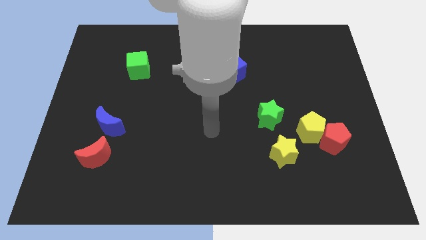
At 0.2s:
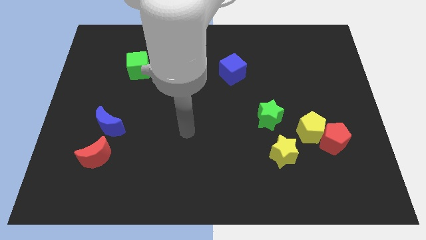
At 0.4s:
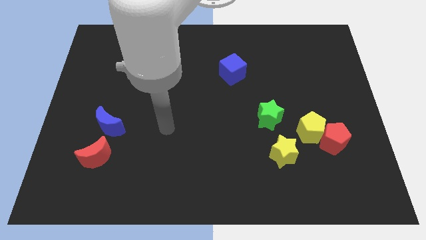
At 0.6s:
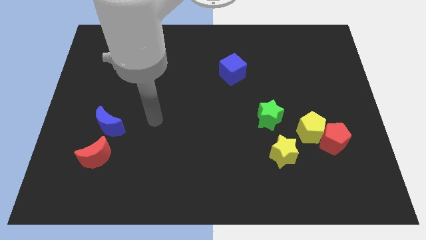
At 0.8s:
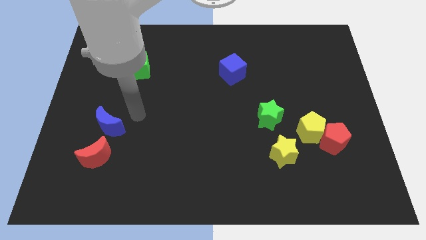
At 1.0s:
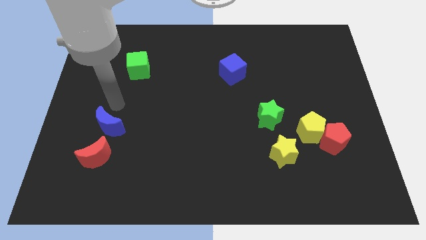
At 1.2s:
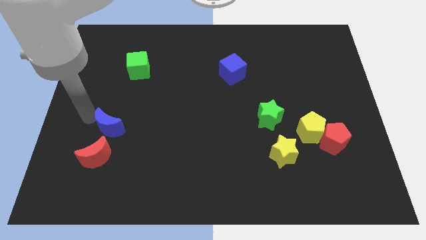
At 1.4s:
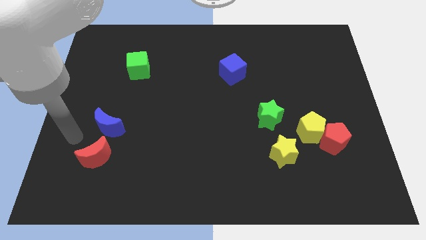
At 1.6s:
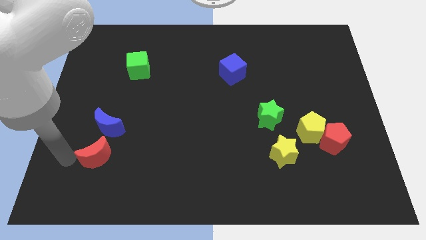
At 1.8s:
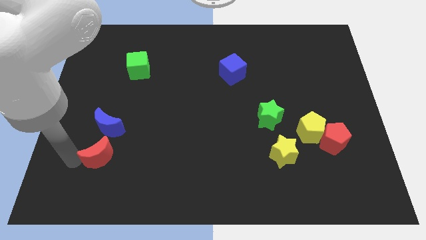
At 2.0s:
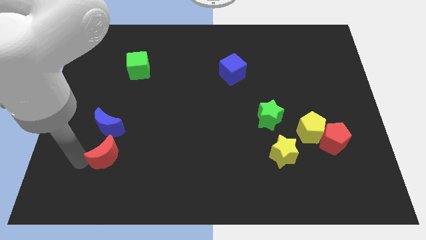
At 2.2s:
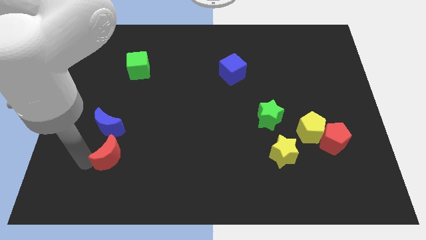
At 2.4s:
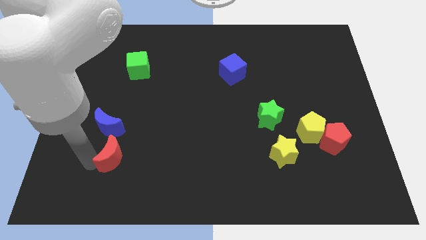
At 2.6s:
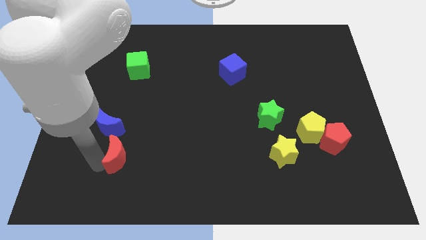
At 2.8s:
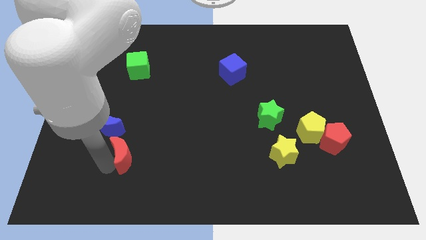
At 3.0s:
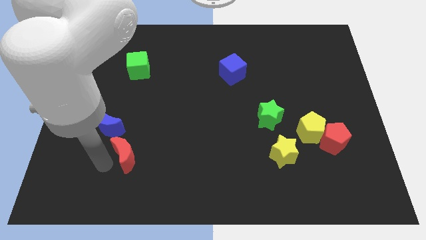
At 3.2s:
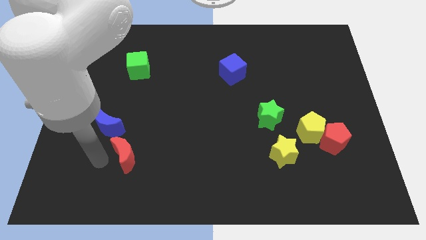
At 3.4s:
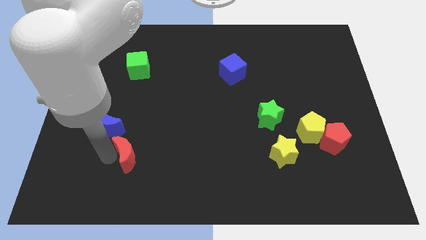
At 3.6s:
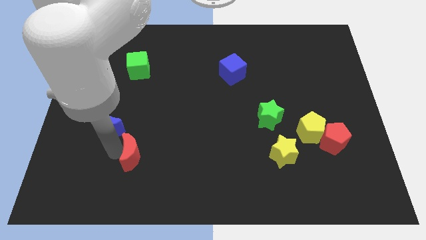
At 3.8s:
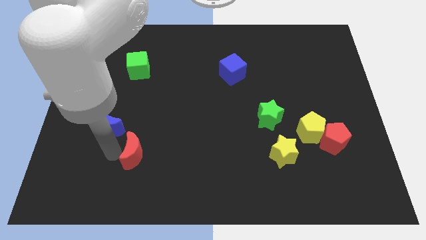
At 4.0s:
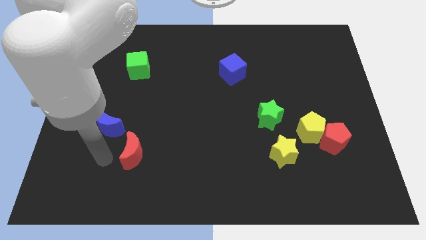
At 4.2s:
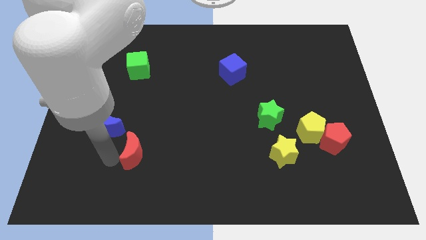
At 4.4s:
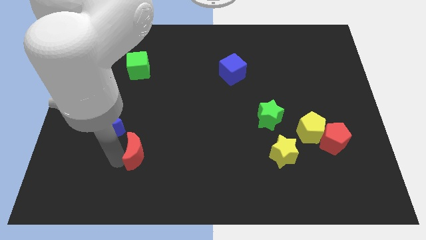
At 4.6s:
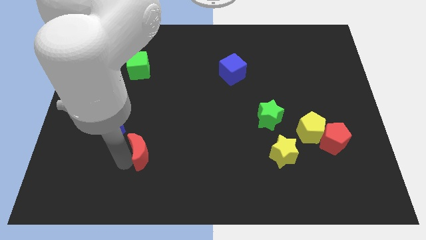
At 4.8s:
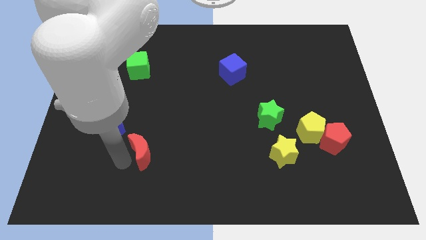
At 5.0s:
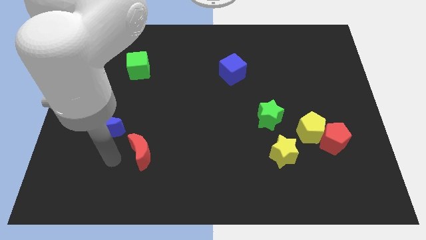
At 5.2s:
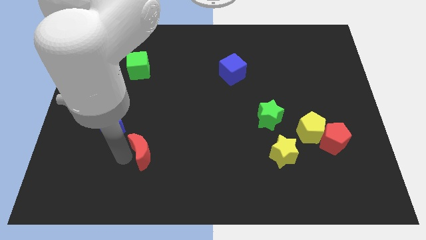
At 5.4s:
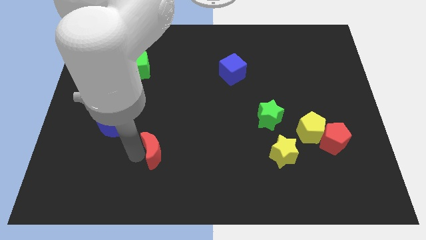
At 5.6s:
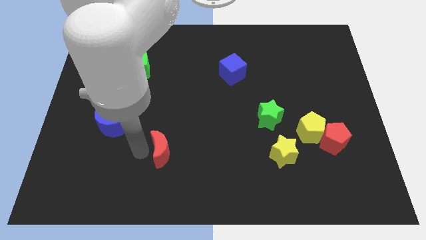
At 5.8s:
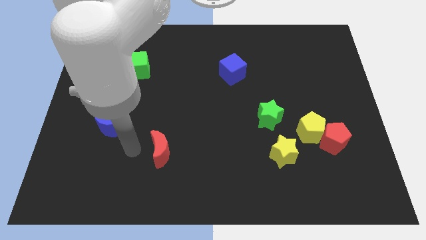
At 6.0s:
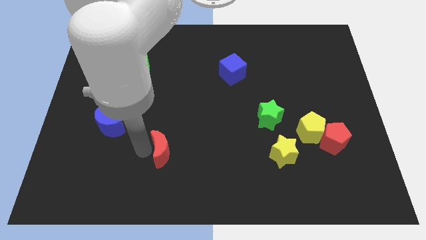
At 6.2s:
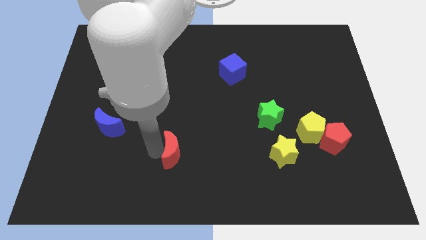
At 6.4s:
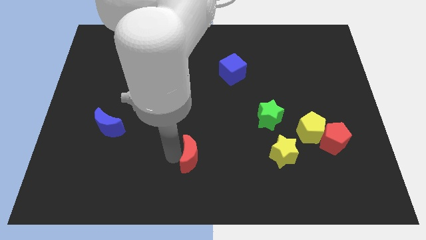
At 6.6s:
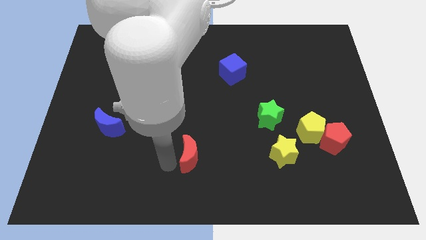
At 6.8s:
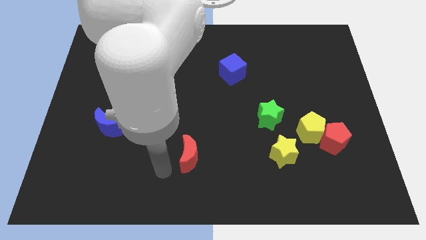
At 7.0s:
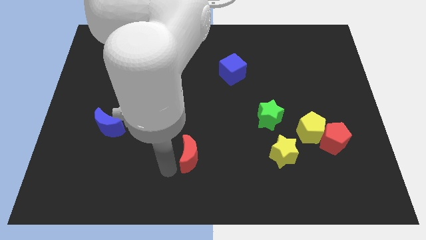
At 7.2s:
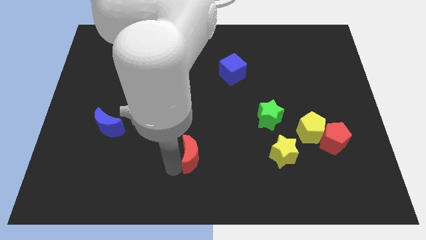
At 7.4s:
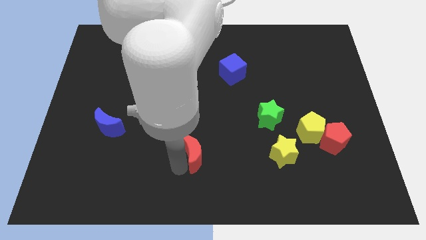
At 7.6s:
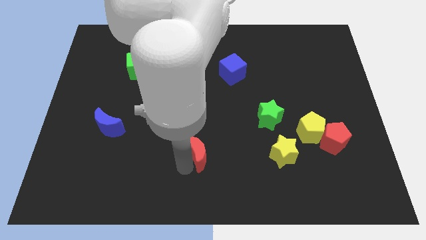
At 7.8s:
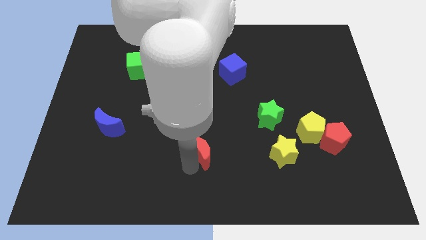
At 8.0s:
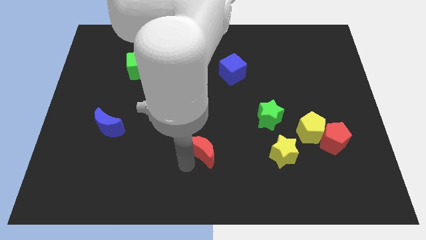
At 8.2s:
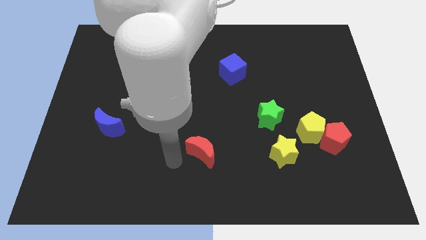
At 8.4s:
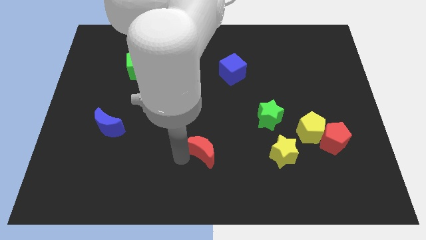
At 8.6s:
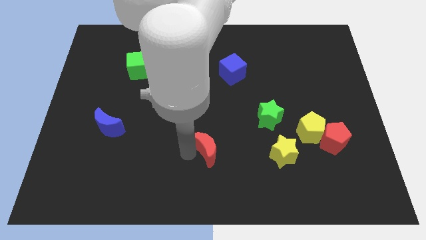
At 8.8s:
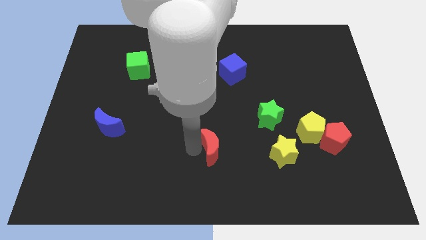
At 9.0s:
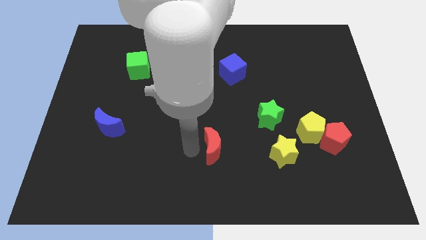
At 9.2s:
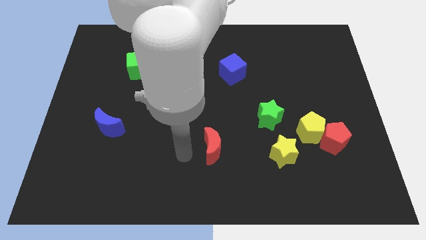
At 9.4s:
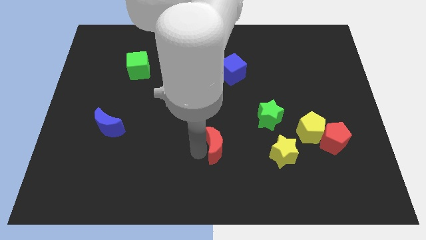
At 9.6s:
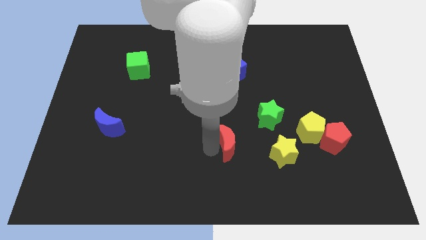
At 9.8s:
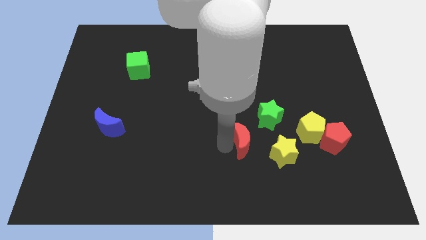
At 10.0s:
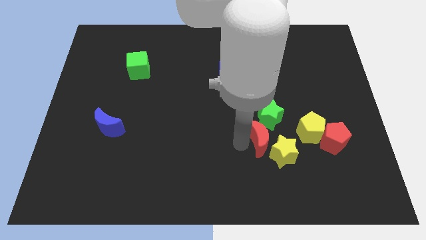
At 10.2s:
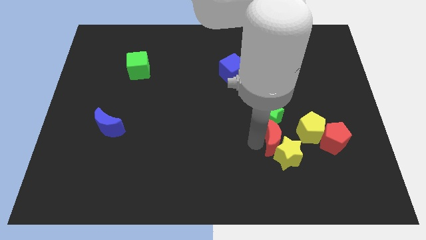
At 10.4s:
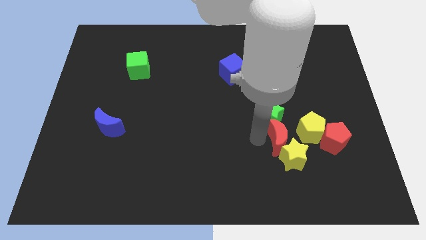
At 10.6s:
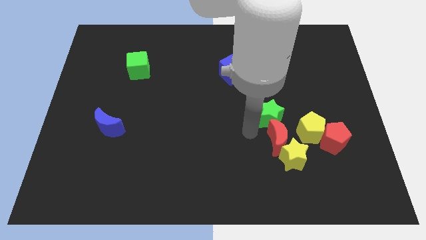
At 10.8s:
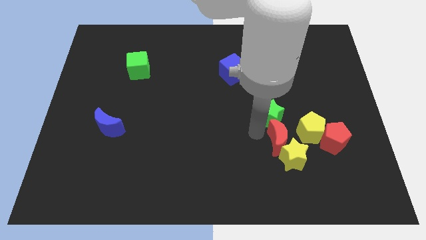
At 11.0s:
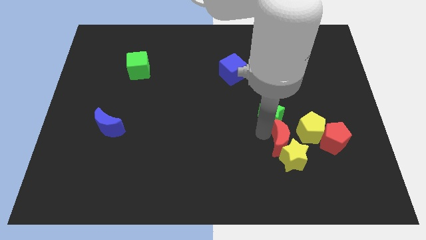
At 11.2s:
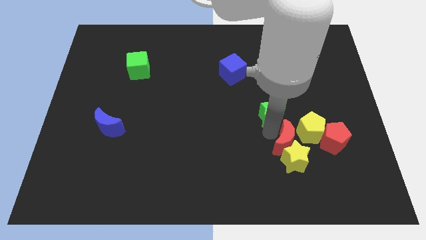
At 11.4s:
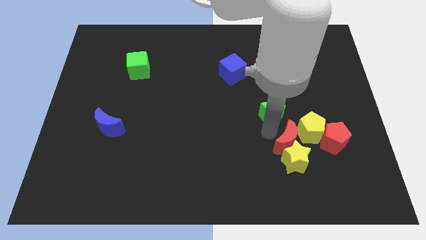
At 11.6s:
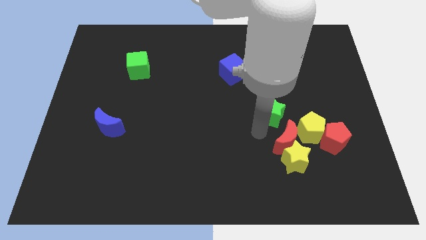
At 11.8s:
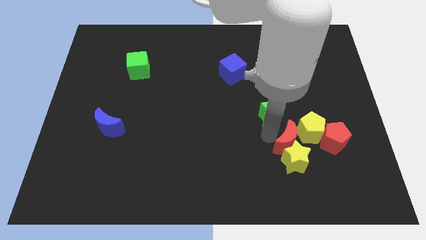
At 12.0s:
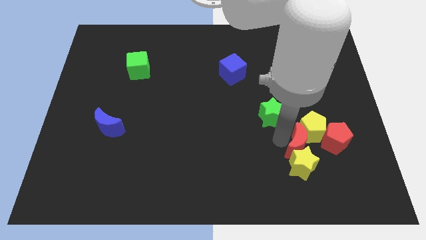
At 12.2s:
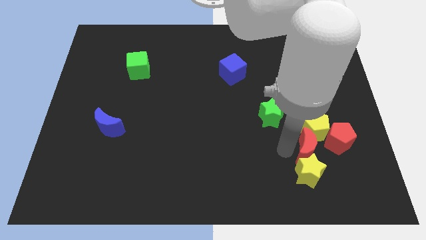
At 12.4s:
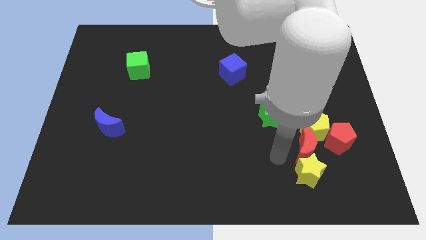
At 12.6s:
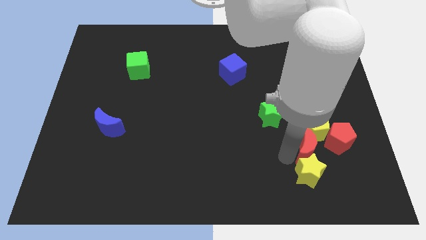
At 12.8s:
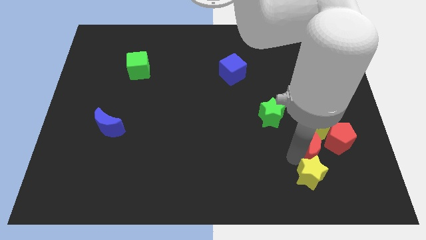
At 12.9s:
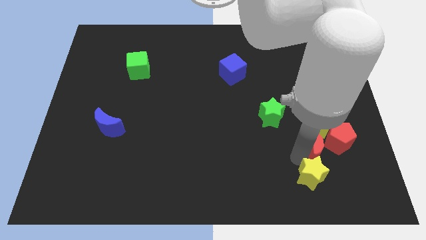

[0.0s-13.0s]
push the red moon next to the red pentagon

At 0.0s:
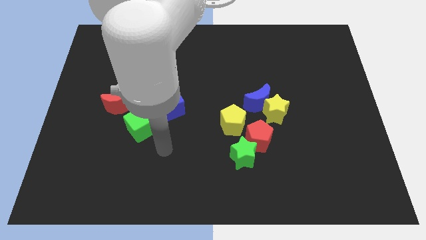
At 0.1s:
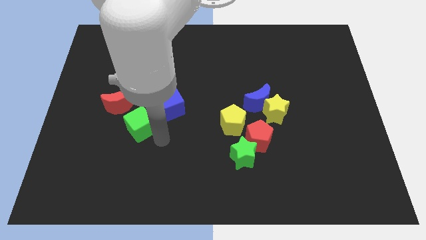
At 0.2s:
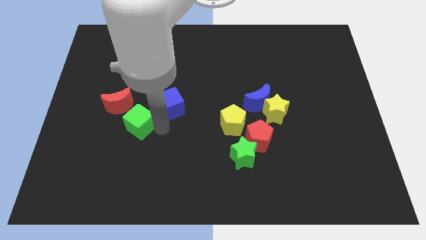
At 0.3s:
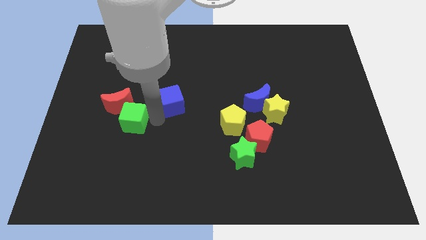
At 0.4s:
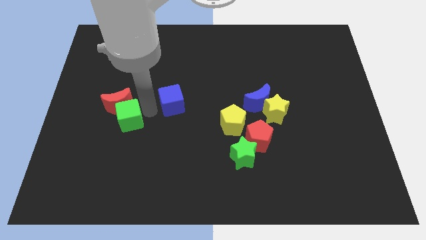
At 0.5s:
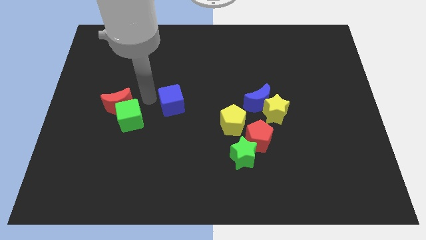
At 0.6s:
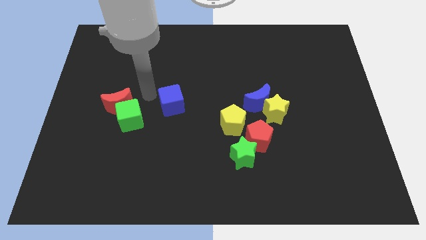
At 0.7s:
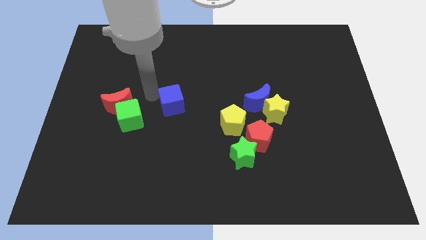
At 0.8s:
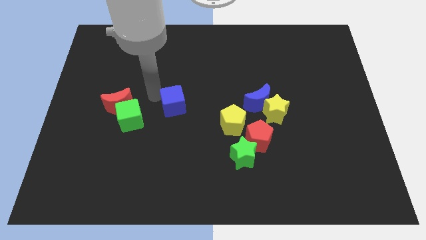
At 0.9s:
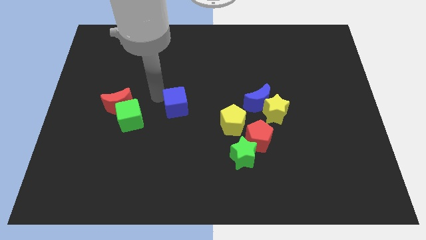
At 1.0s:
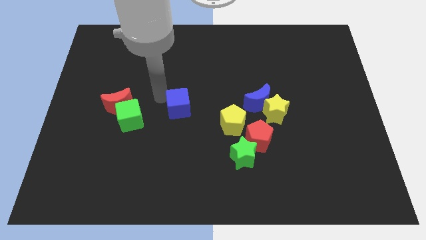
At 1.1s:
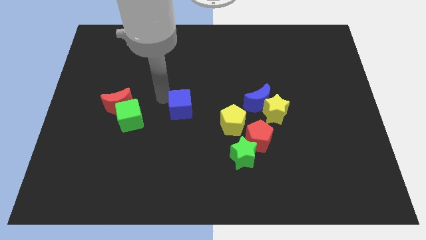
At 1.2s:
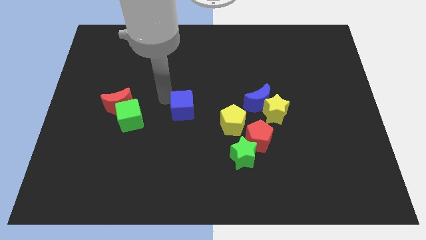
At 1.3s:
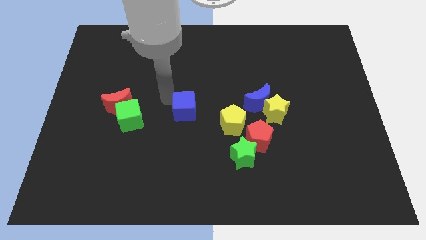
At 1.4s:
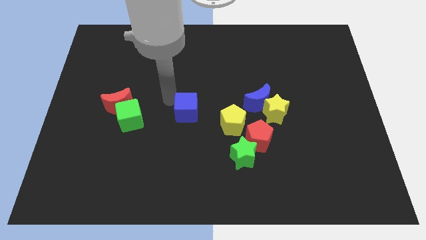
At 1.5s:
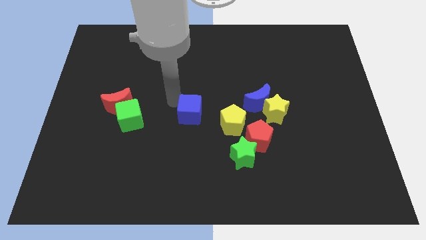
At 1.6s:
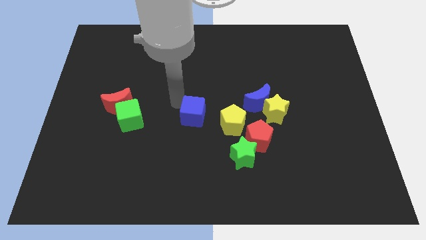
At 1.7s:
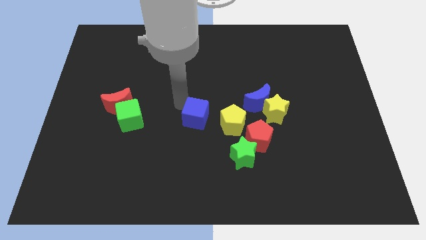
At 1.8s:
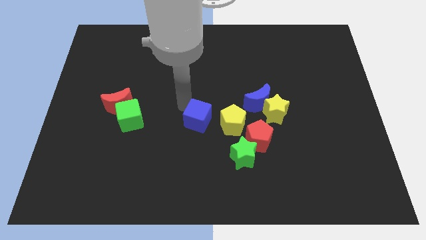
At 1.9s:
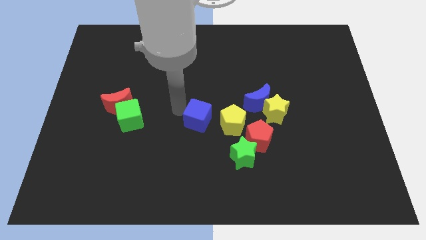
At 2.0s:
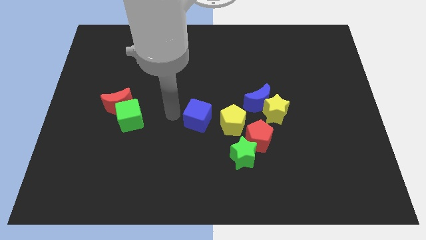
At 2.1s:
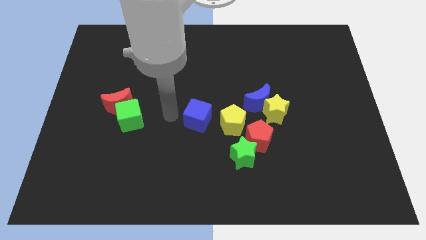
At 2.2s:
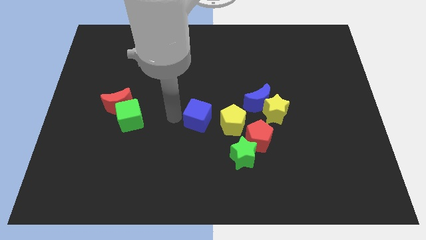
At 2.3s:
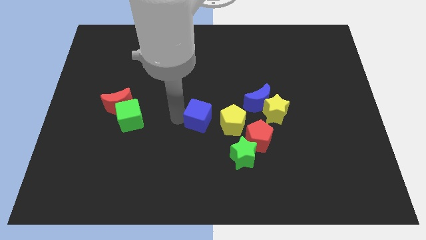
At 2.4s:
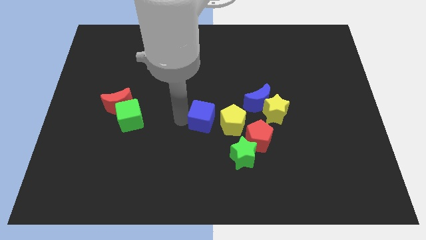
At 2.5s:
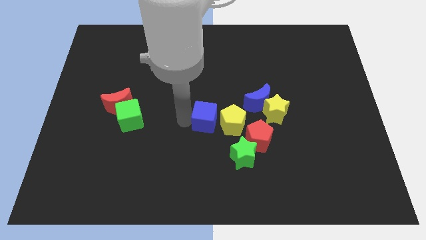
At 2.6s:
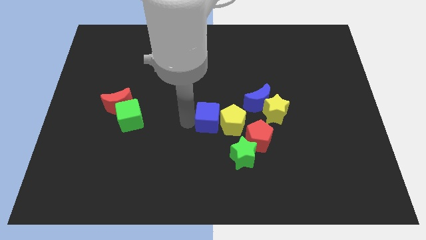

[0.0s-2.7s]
move the blue cube close to the yellow pentagon
